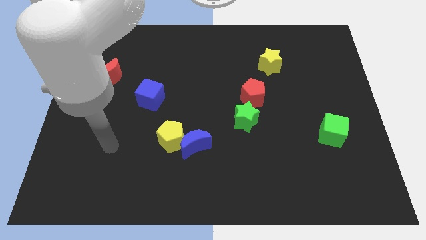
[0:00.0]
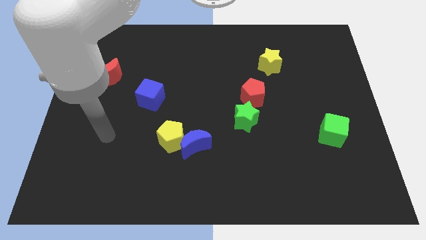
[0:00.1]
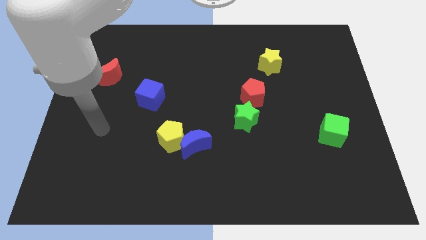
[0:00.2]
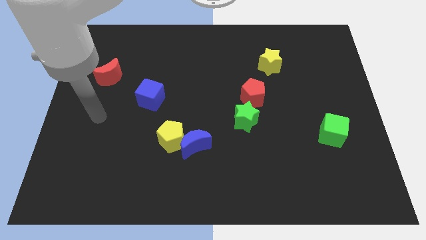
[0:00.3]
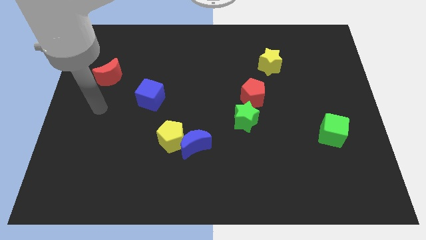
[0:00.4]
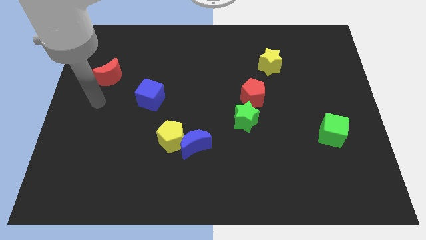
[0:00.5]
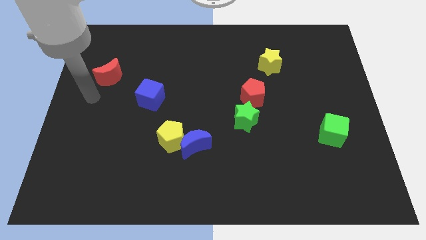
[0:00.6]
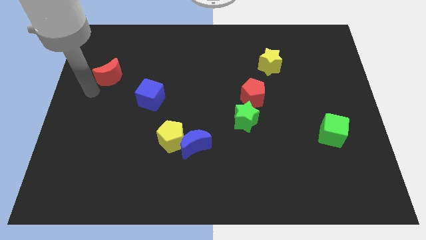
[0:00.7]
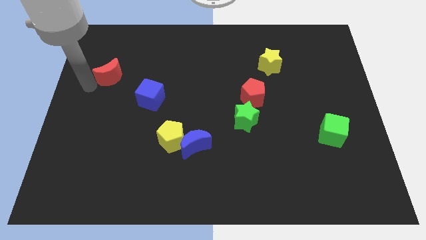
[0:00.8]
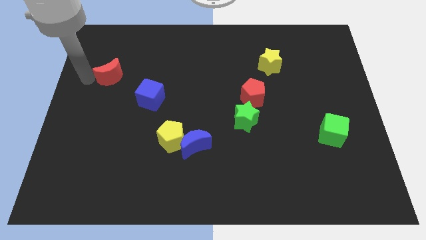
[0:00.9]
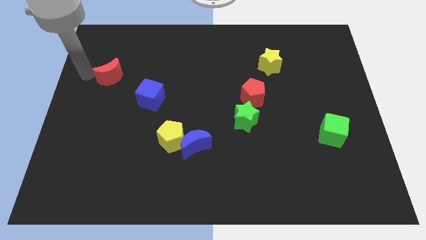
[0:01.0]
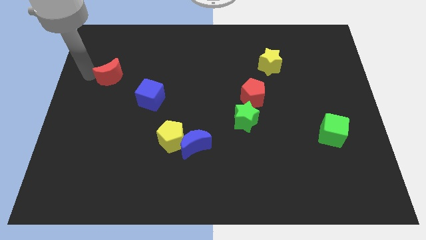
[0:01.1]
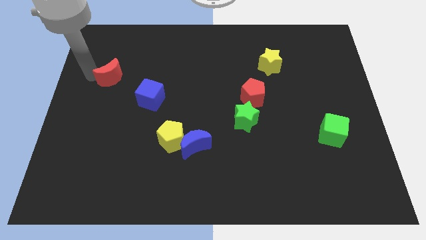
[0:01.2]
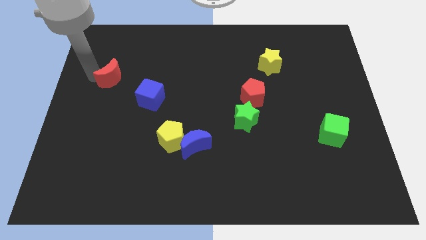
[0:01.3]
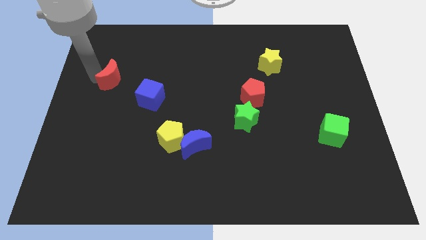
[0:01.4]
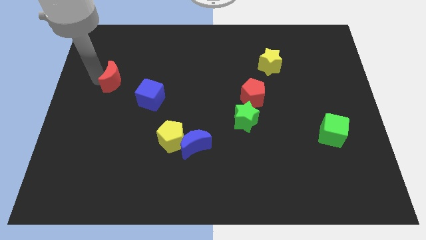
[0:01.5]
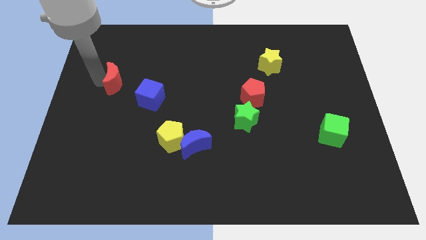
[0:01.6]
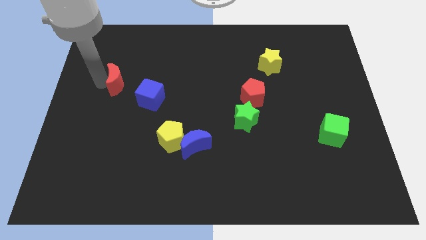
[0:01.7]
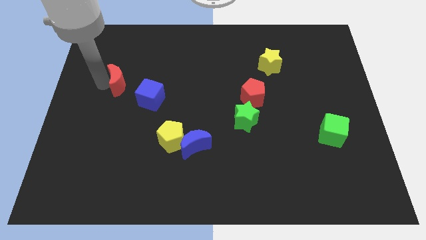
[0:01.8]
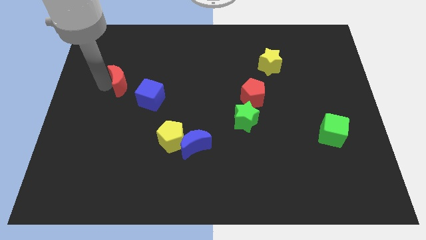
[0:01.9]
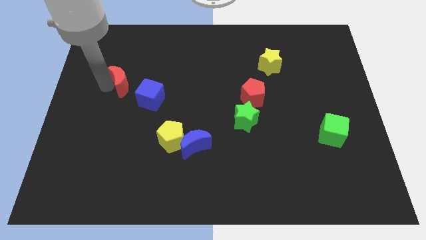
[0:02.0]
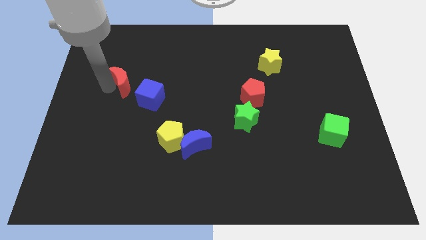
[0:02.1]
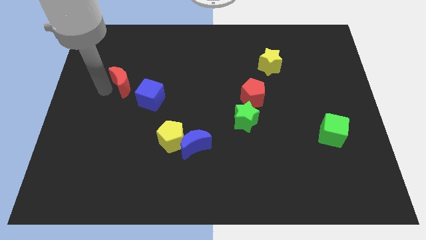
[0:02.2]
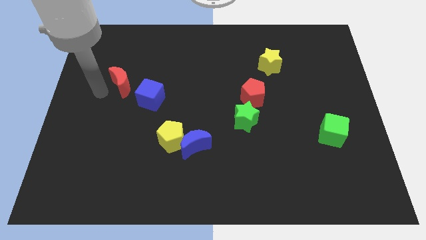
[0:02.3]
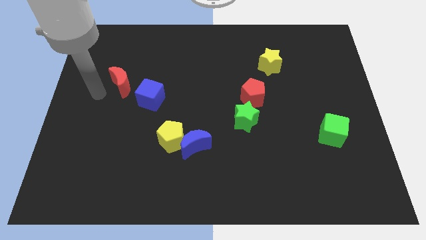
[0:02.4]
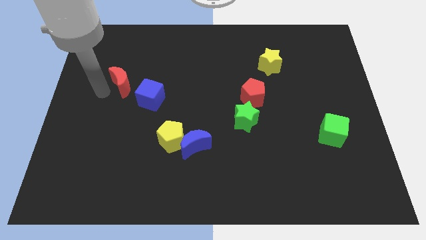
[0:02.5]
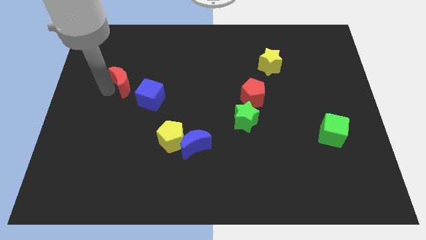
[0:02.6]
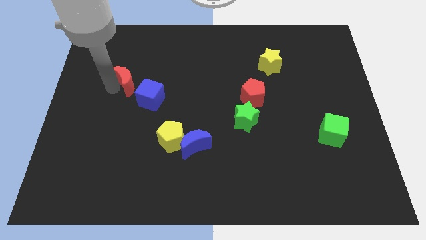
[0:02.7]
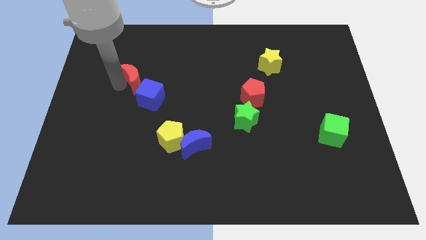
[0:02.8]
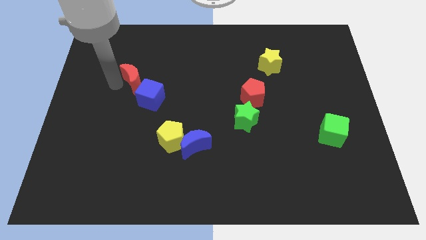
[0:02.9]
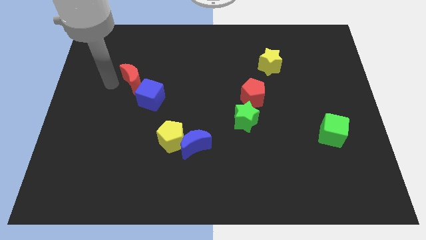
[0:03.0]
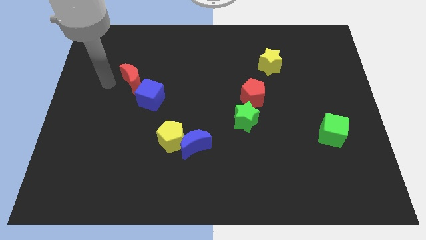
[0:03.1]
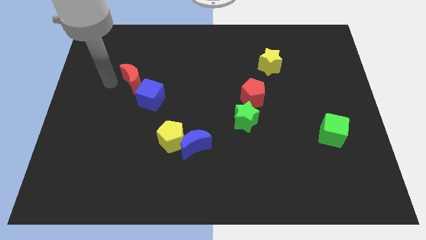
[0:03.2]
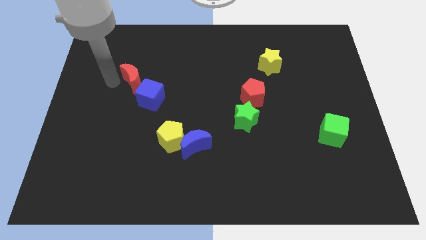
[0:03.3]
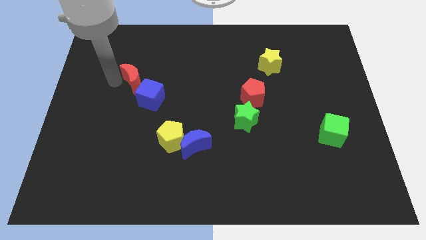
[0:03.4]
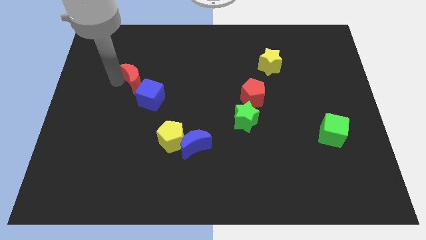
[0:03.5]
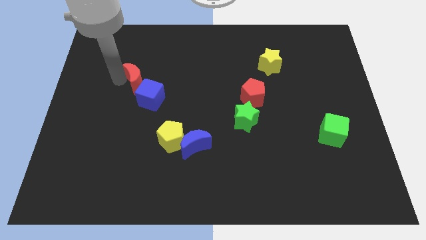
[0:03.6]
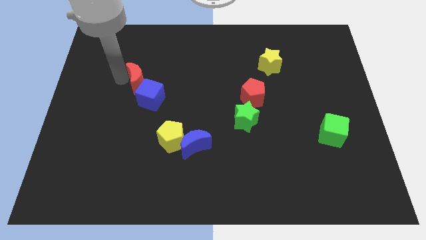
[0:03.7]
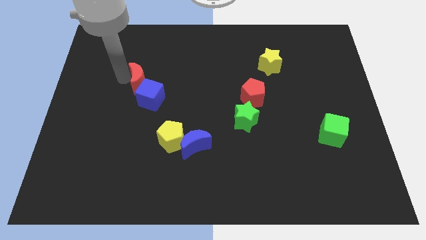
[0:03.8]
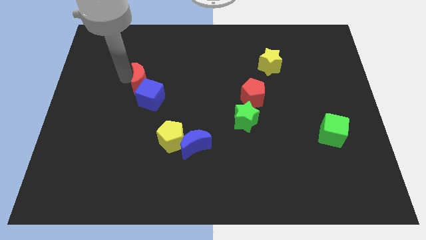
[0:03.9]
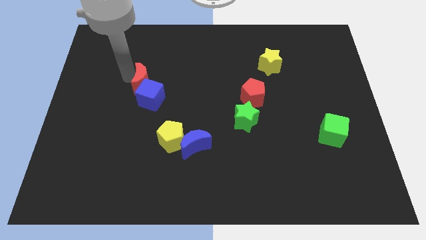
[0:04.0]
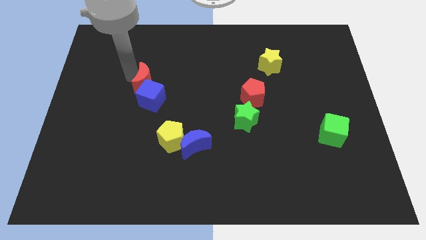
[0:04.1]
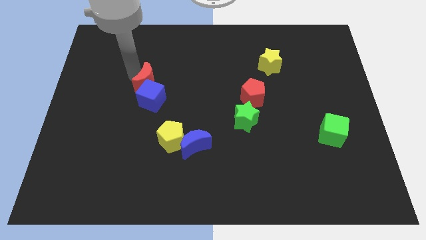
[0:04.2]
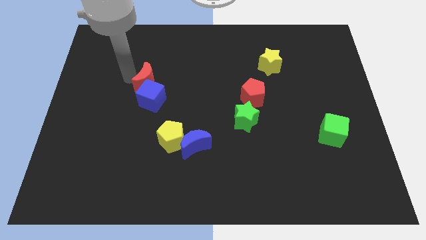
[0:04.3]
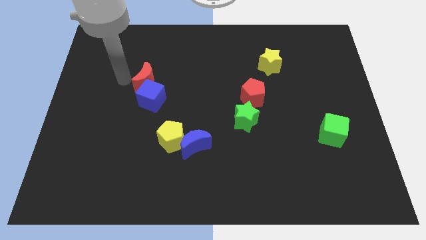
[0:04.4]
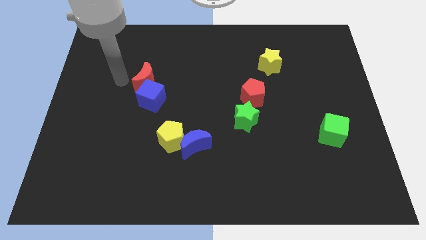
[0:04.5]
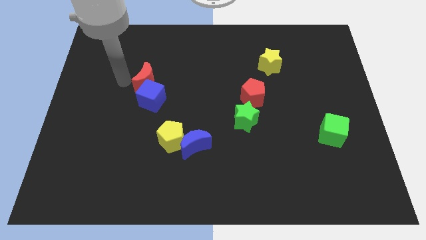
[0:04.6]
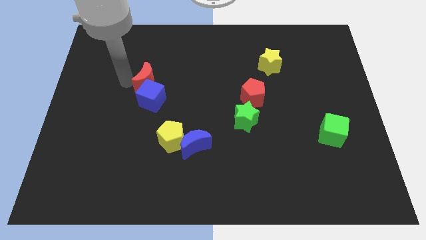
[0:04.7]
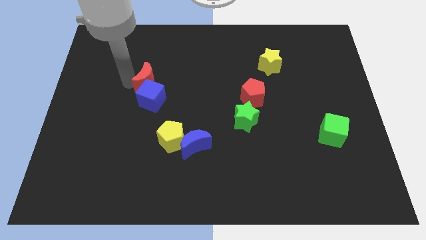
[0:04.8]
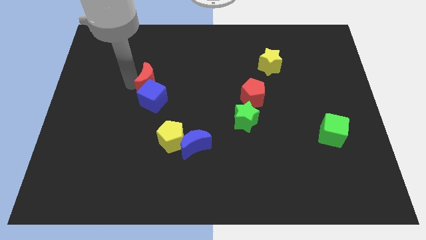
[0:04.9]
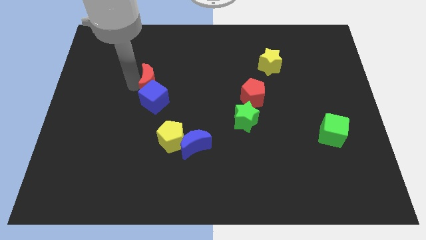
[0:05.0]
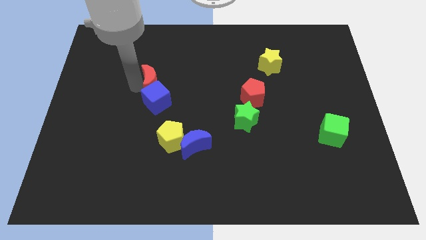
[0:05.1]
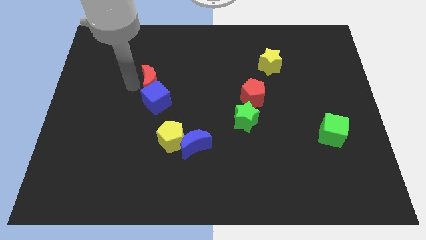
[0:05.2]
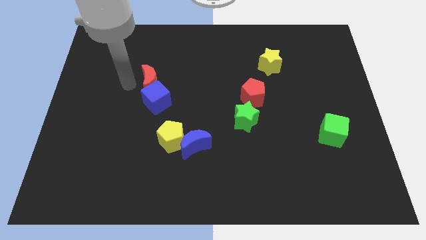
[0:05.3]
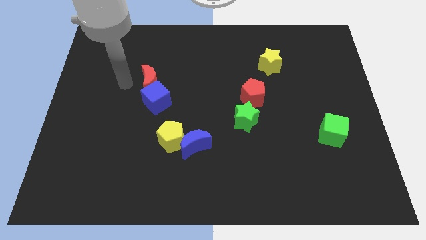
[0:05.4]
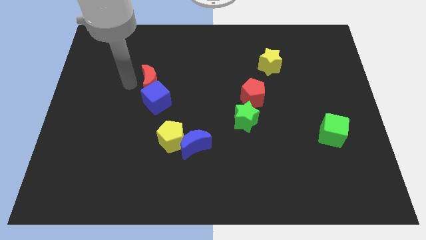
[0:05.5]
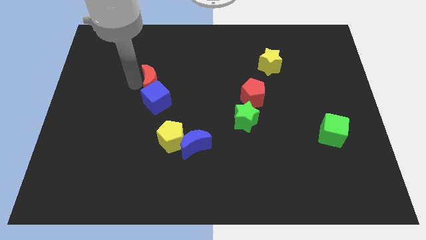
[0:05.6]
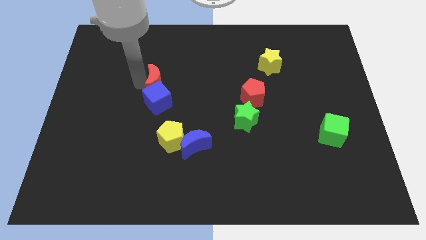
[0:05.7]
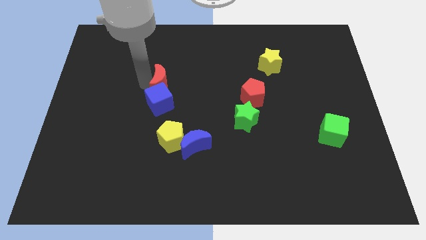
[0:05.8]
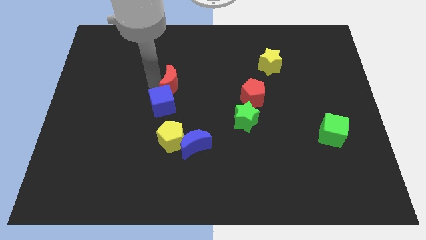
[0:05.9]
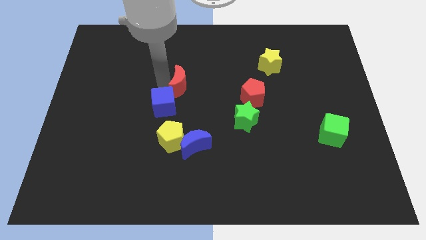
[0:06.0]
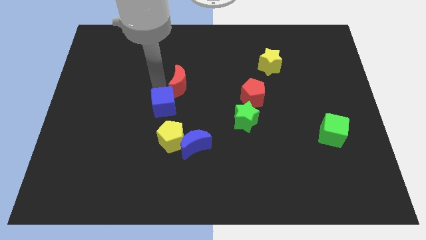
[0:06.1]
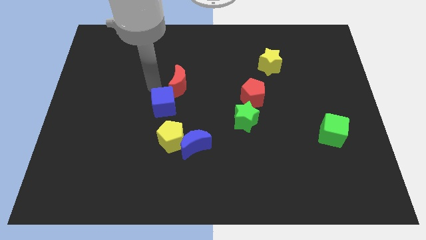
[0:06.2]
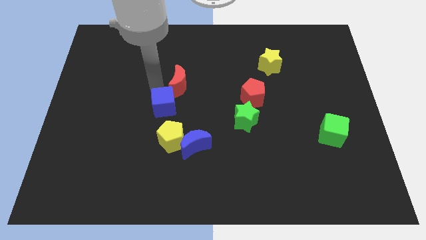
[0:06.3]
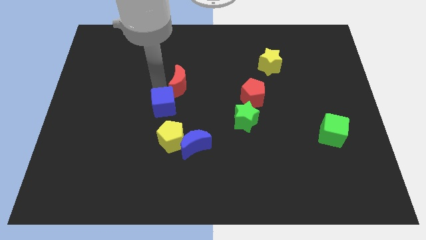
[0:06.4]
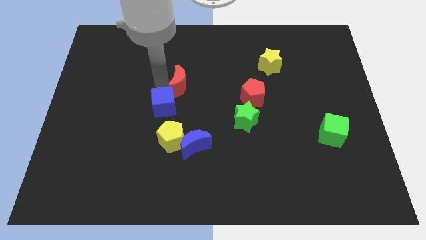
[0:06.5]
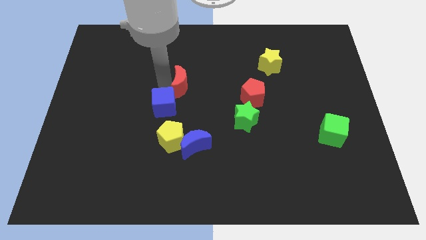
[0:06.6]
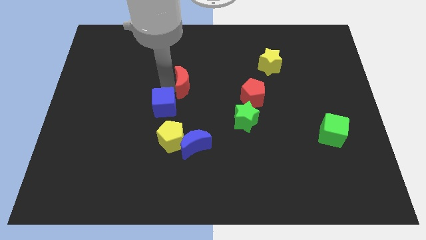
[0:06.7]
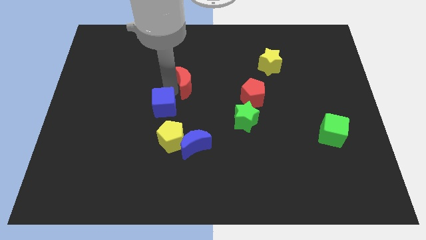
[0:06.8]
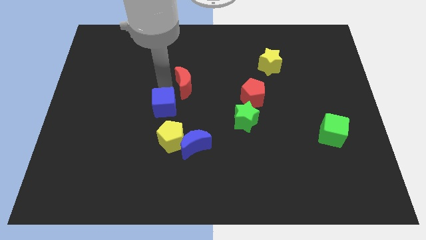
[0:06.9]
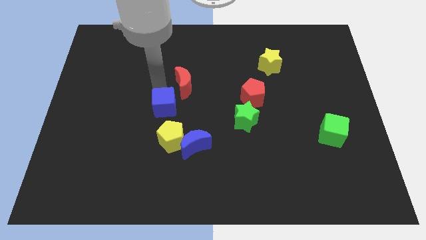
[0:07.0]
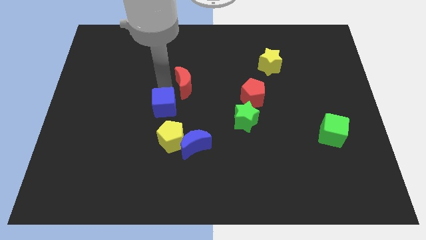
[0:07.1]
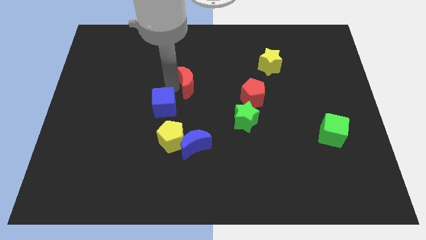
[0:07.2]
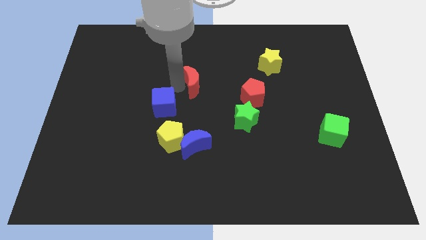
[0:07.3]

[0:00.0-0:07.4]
push the red moon to the right

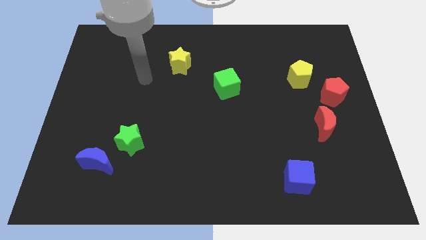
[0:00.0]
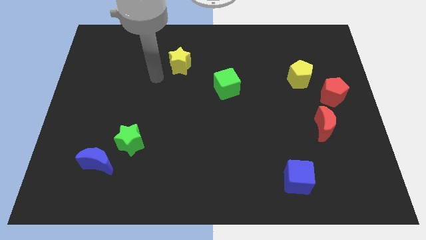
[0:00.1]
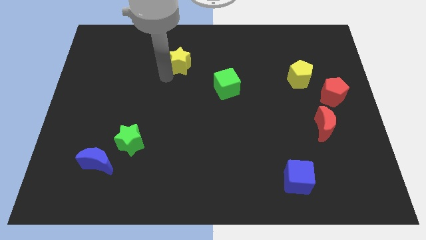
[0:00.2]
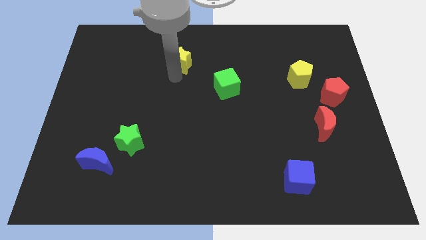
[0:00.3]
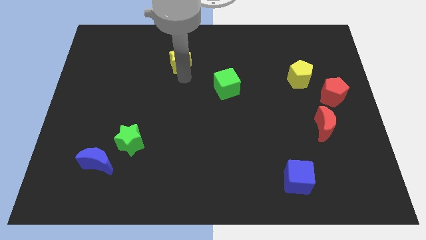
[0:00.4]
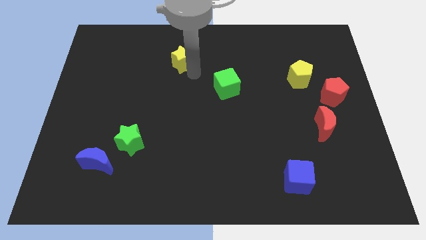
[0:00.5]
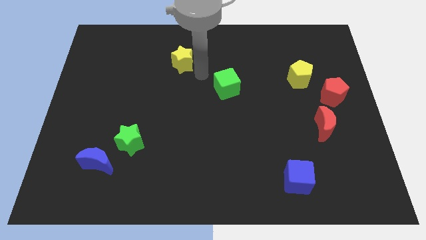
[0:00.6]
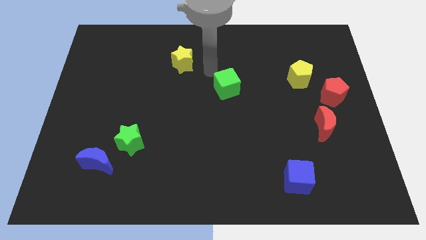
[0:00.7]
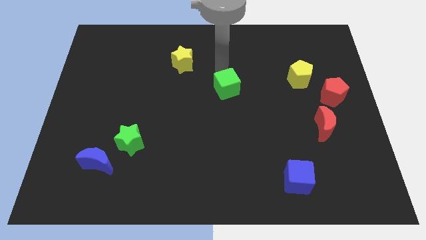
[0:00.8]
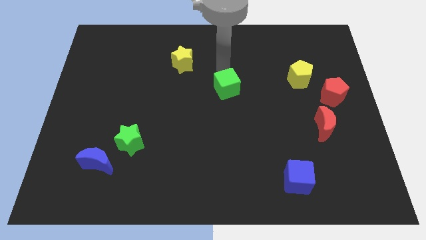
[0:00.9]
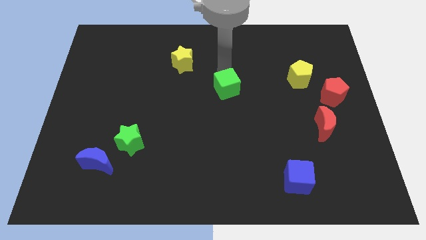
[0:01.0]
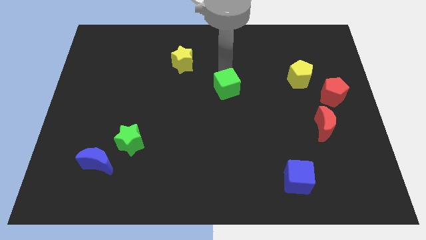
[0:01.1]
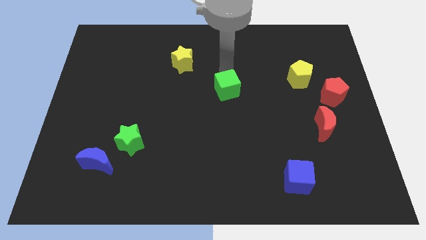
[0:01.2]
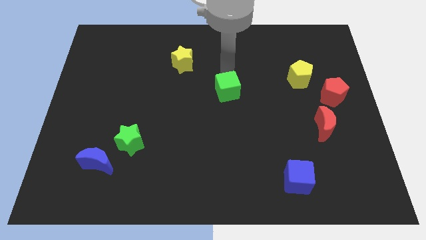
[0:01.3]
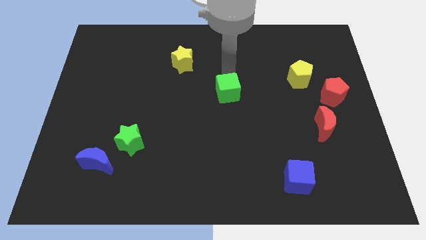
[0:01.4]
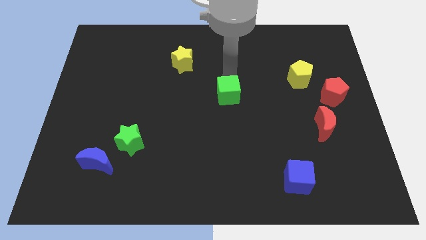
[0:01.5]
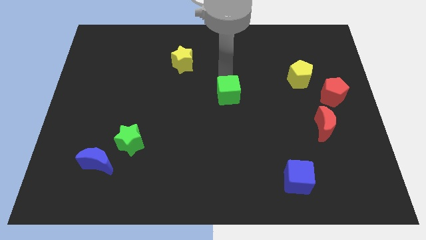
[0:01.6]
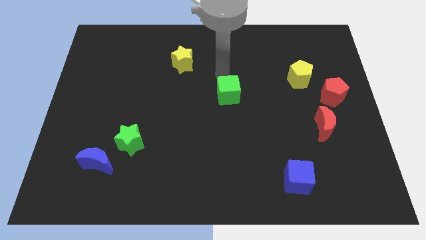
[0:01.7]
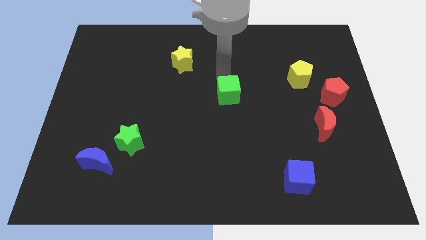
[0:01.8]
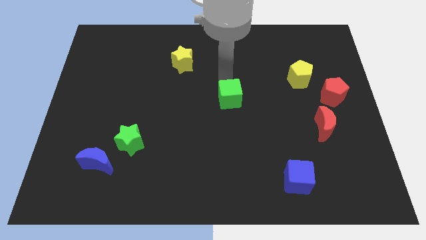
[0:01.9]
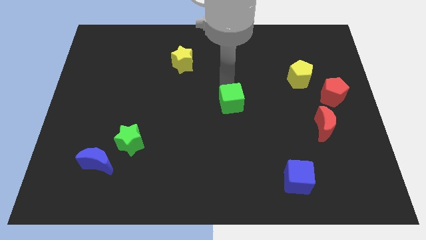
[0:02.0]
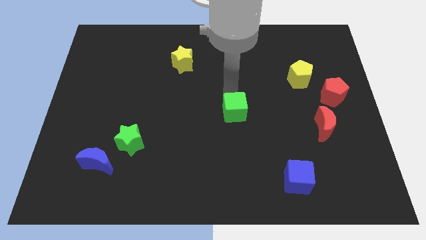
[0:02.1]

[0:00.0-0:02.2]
slide the green cube somewhat downwards
